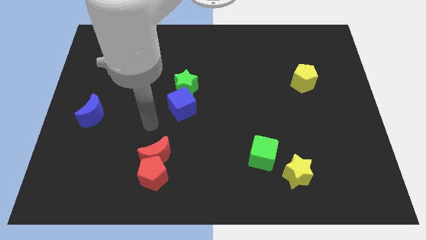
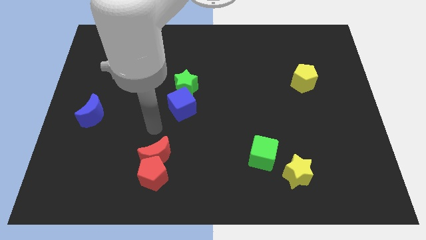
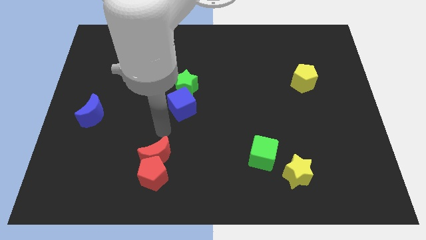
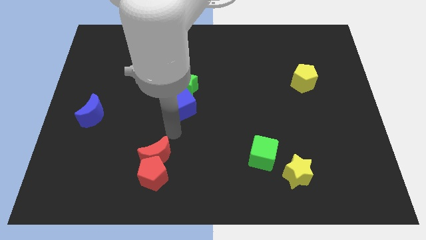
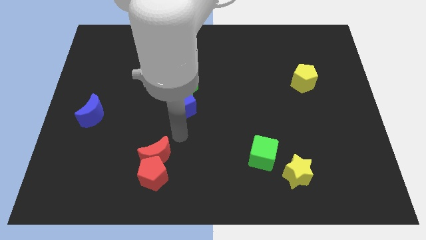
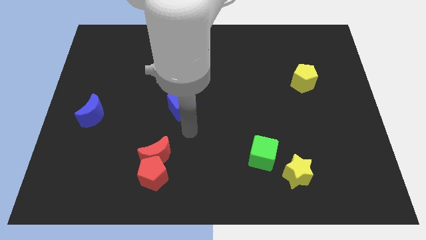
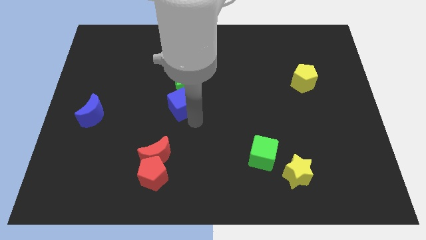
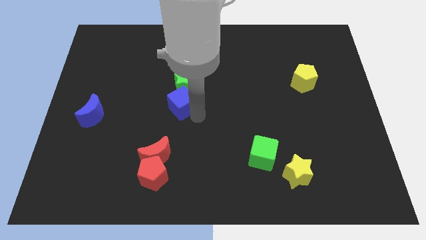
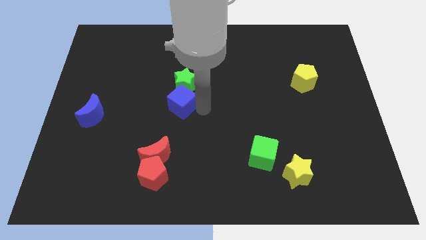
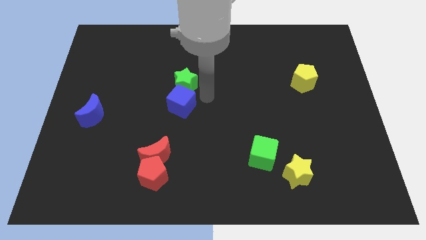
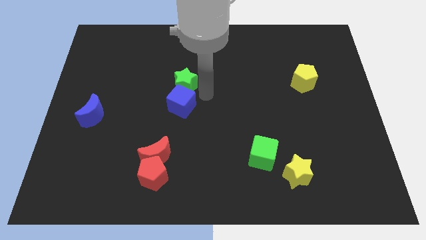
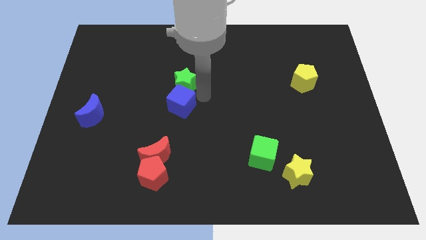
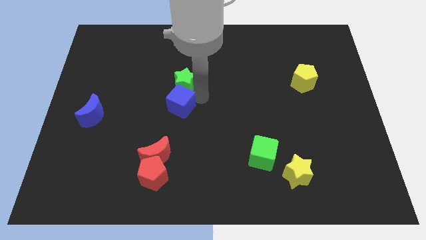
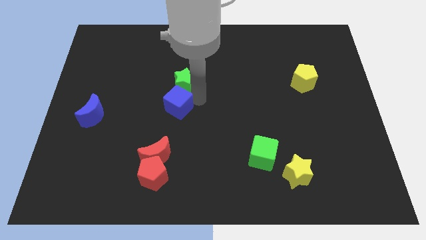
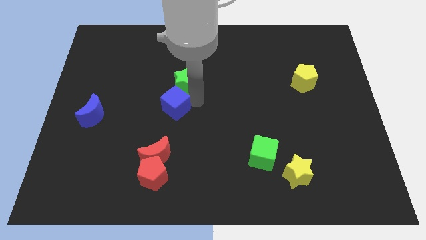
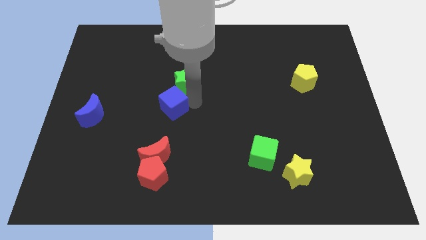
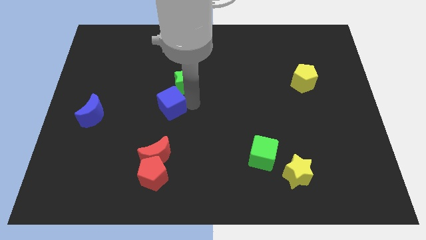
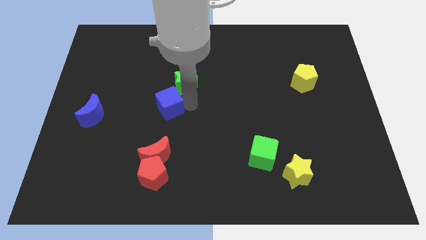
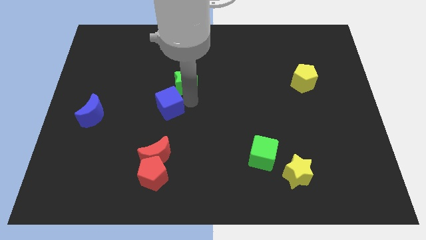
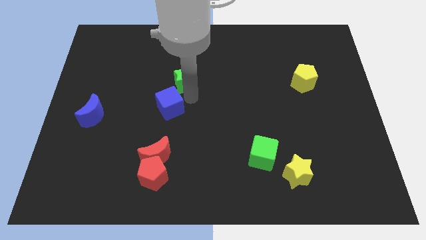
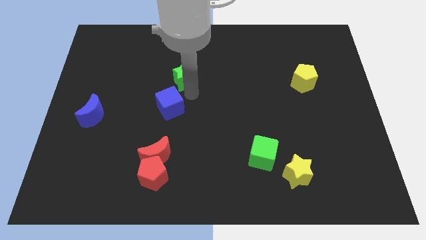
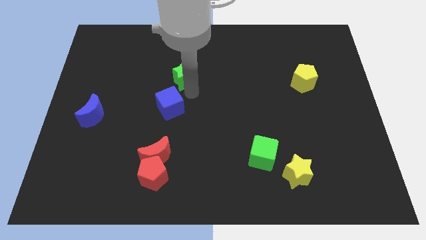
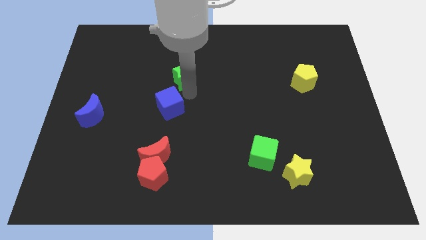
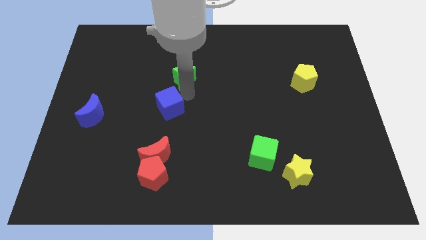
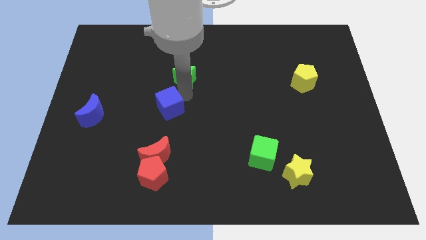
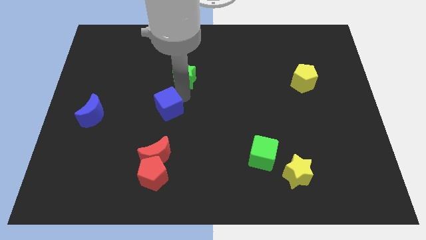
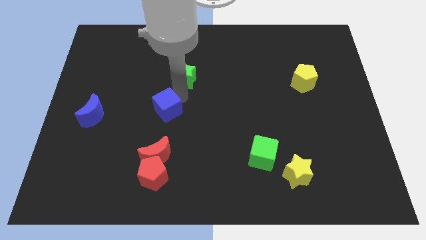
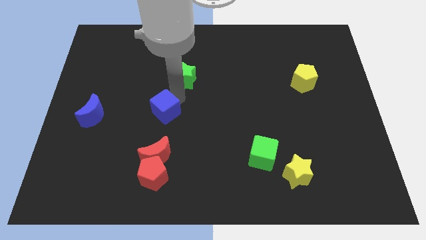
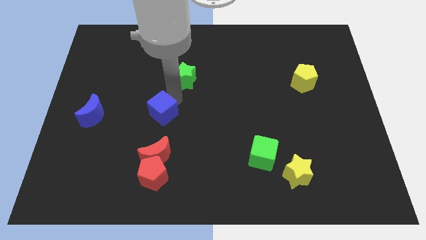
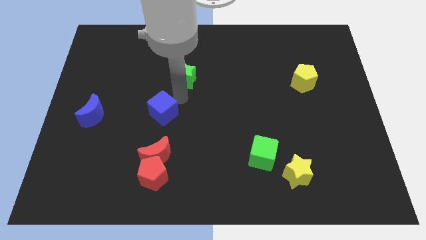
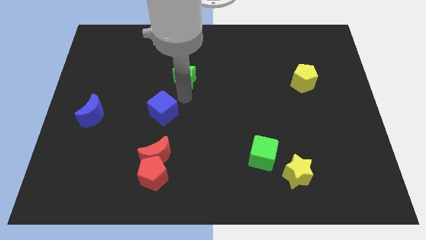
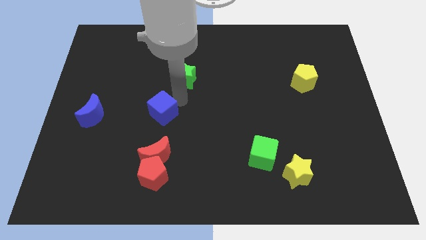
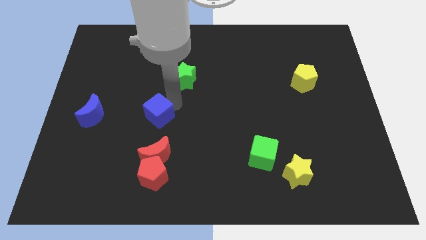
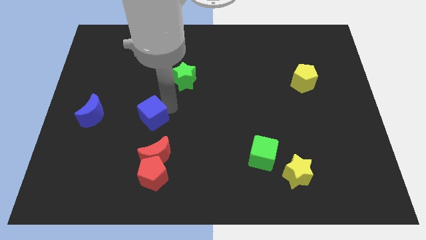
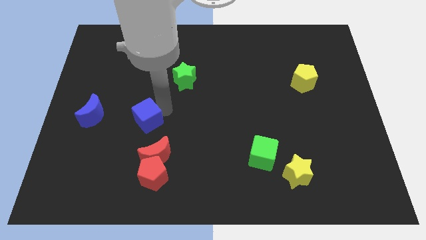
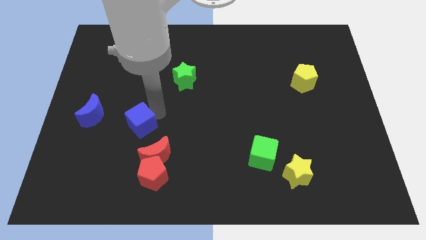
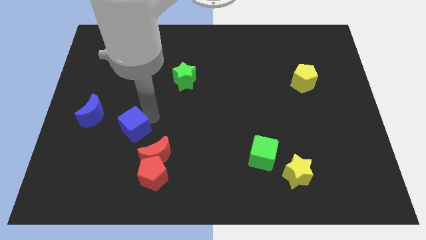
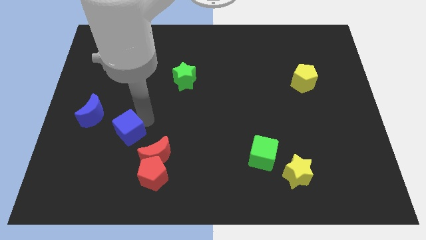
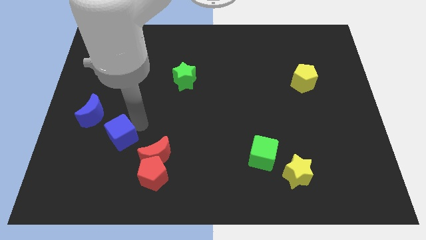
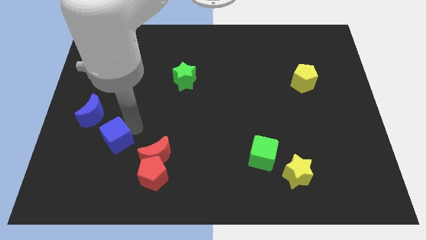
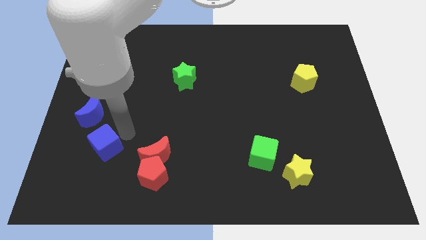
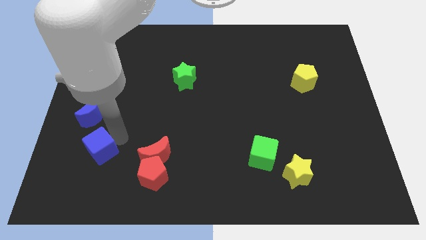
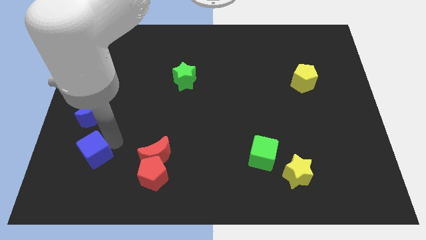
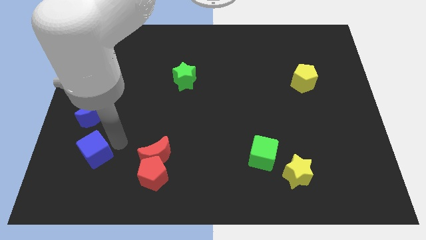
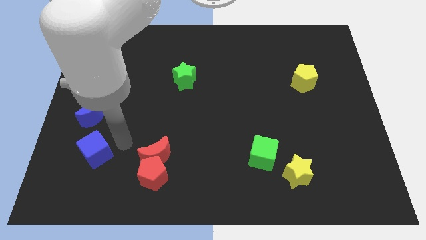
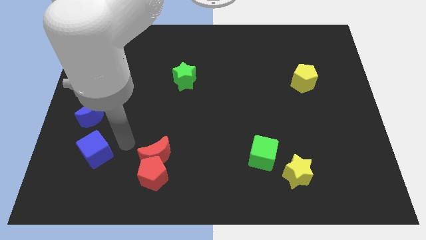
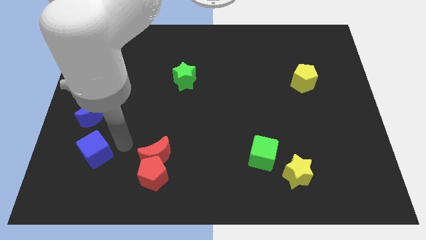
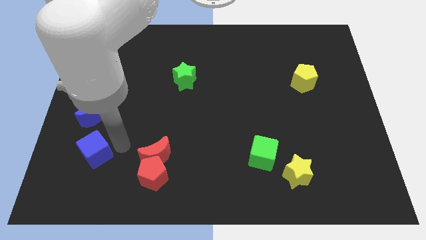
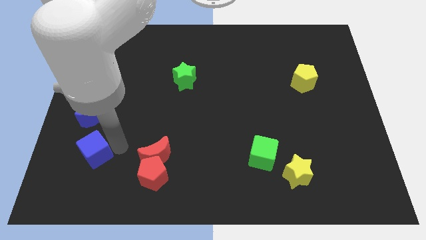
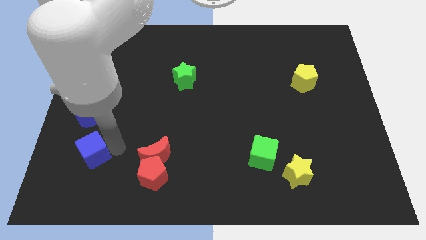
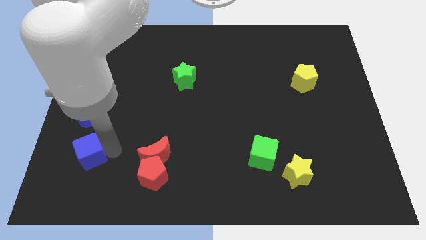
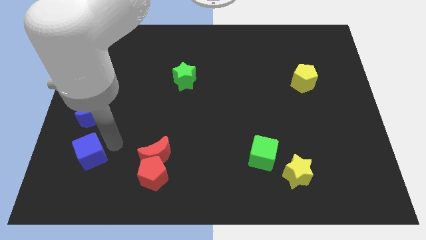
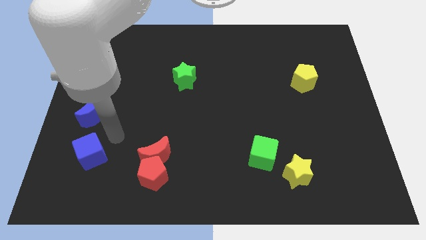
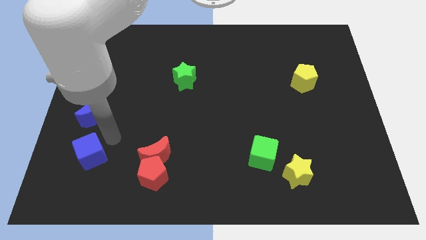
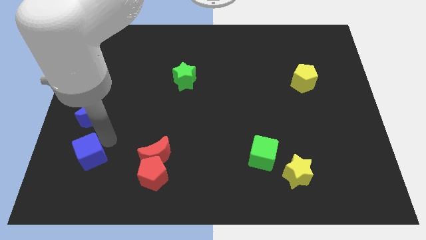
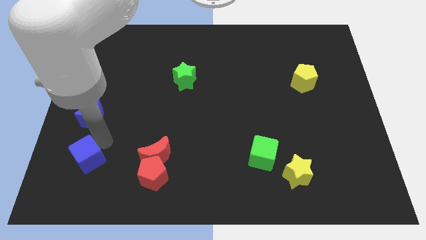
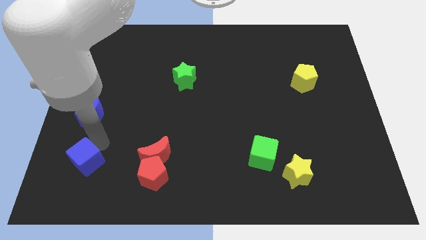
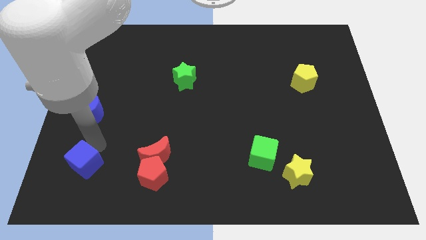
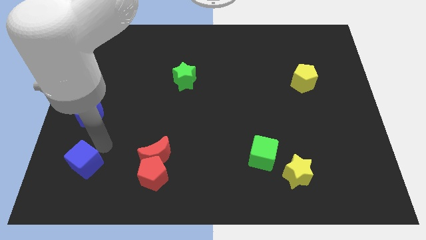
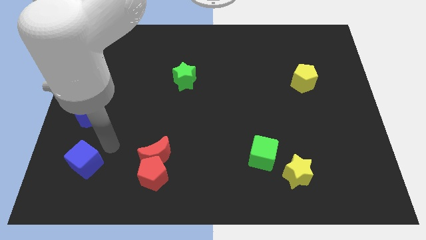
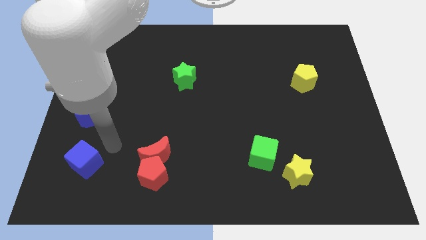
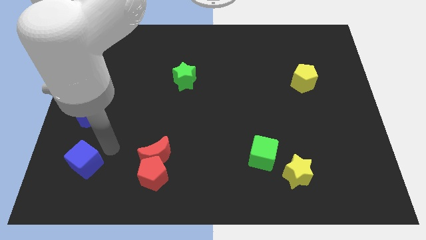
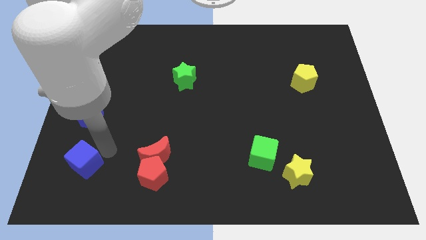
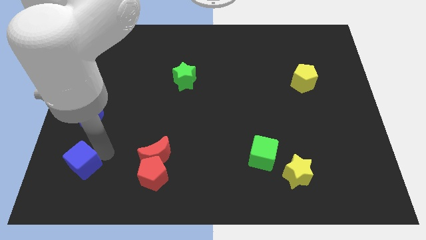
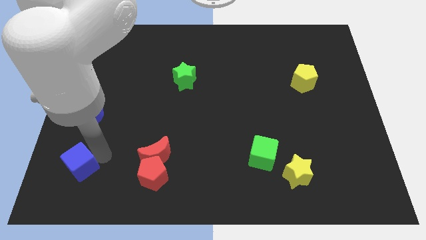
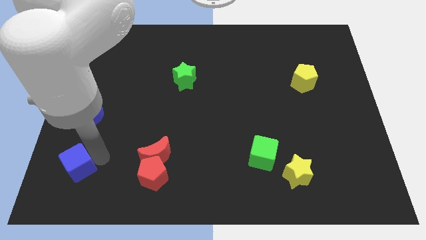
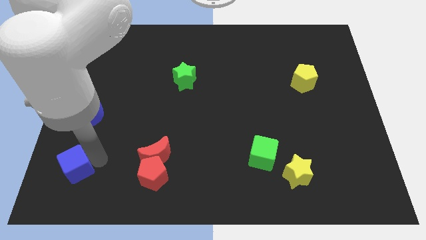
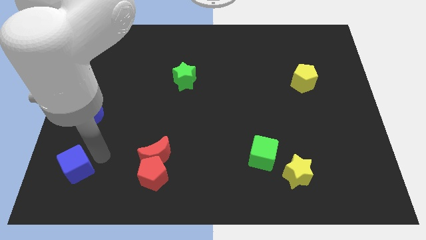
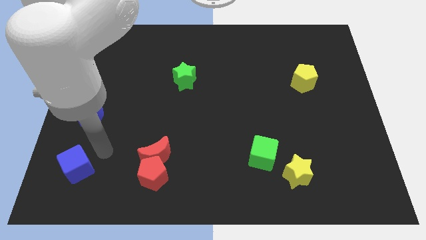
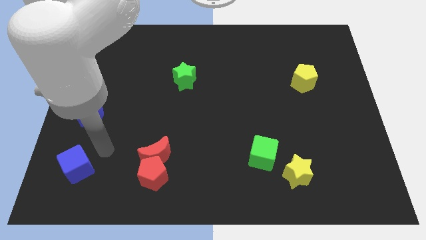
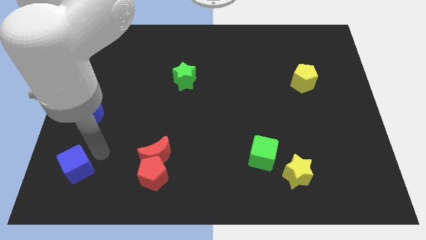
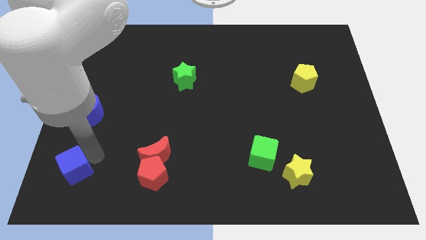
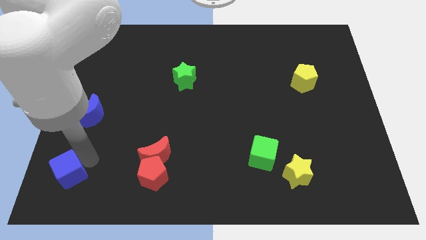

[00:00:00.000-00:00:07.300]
move the blue cube to the bottom left corner
